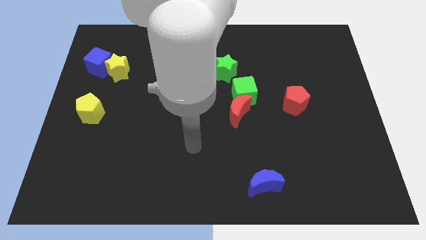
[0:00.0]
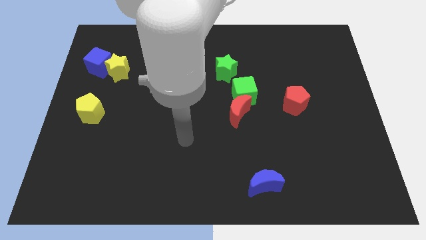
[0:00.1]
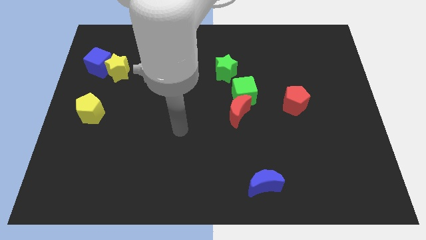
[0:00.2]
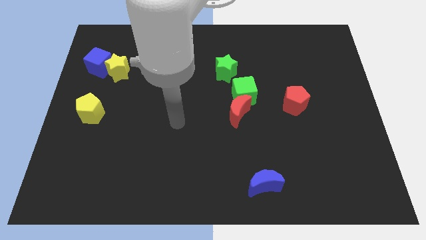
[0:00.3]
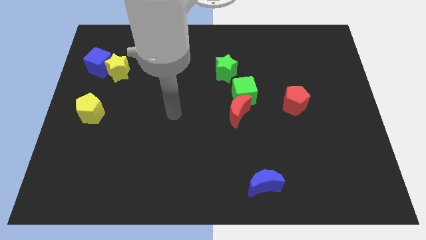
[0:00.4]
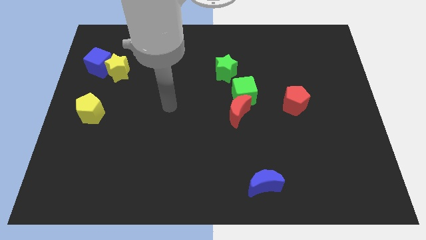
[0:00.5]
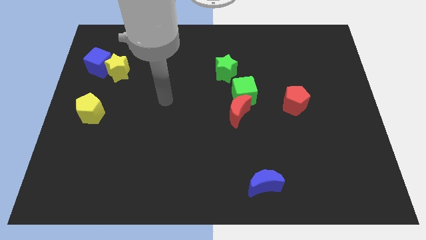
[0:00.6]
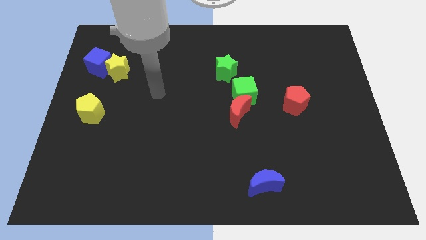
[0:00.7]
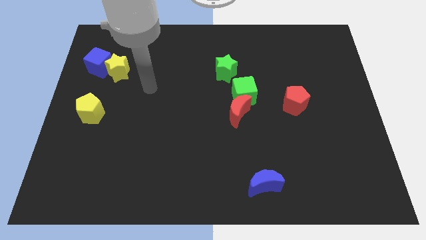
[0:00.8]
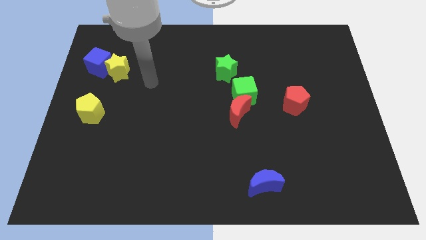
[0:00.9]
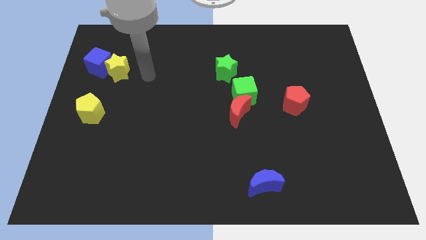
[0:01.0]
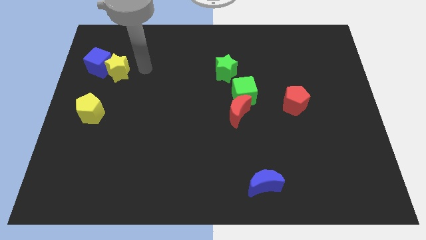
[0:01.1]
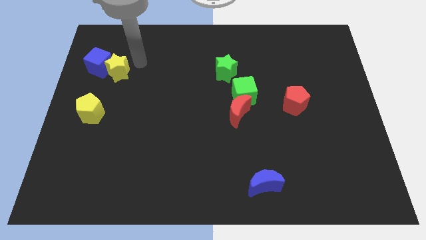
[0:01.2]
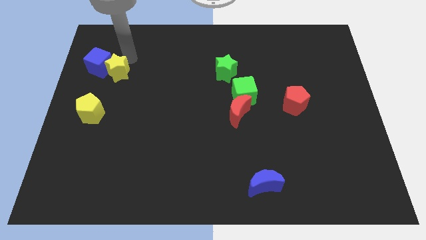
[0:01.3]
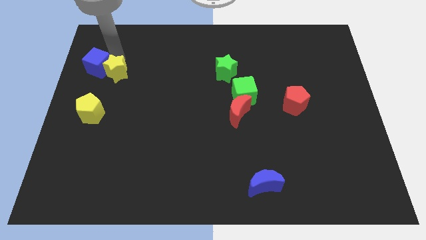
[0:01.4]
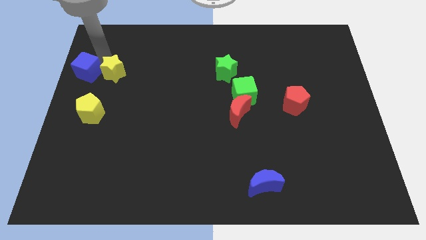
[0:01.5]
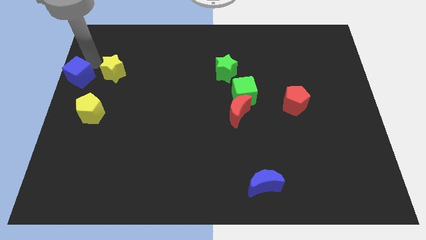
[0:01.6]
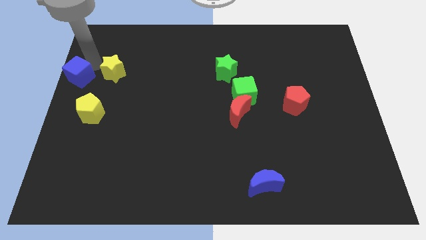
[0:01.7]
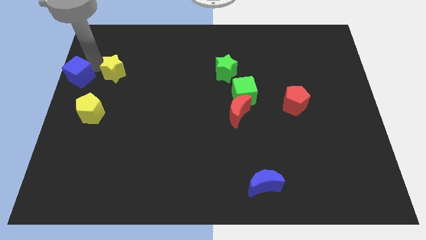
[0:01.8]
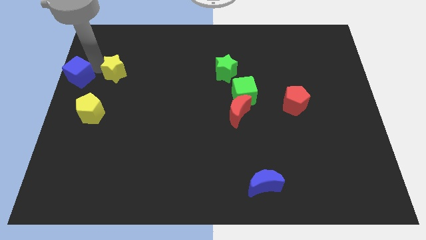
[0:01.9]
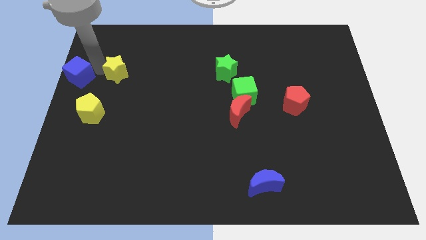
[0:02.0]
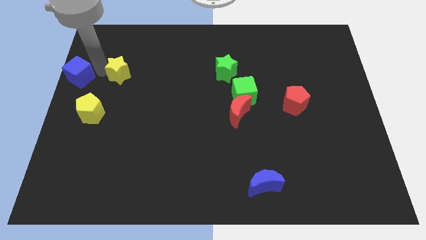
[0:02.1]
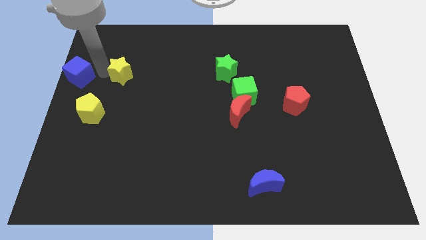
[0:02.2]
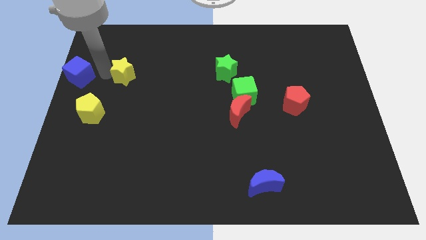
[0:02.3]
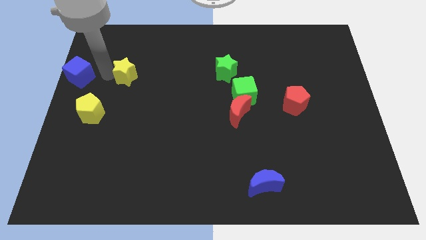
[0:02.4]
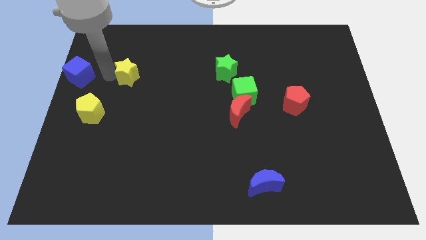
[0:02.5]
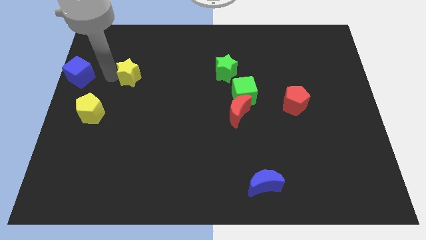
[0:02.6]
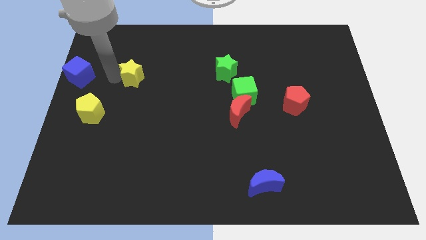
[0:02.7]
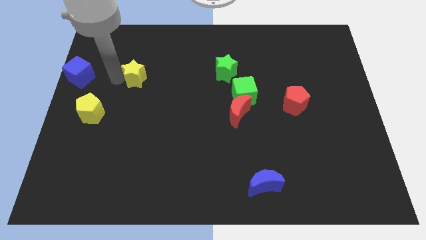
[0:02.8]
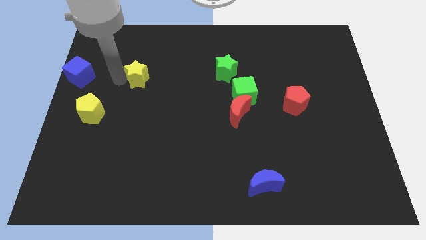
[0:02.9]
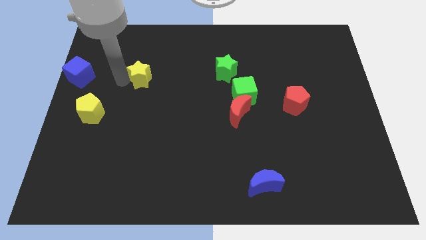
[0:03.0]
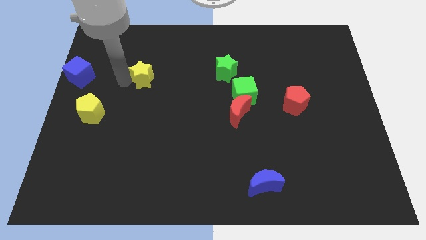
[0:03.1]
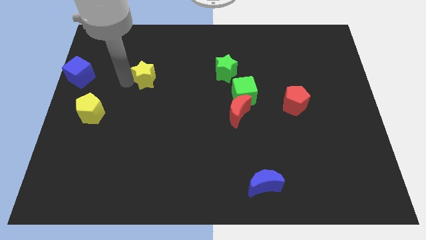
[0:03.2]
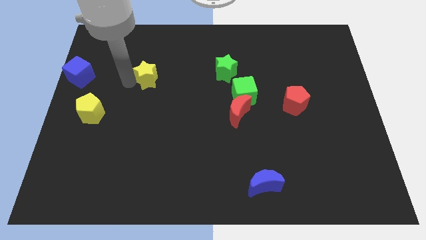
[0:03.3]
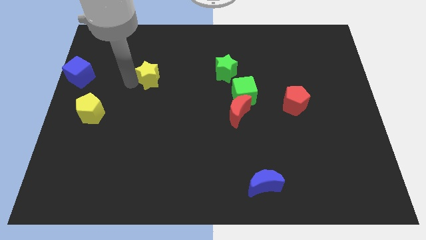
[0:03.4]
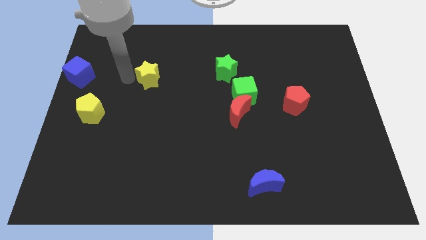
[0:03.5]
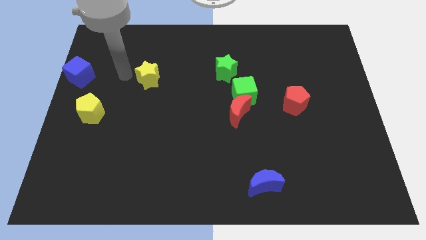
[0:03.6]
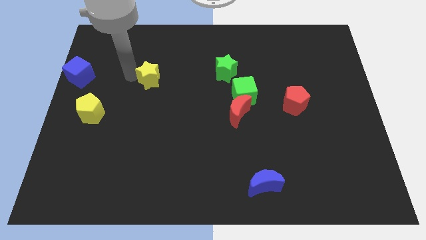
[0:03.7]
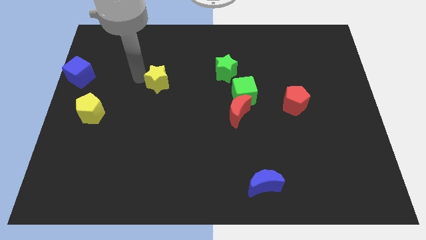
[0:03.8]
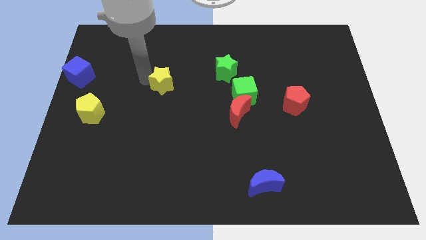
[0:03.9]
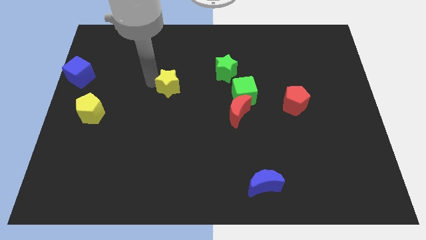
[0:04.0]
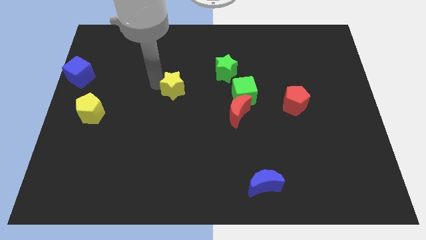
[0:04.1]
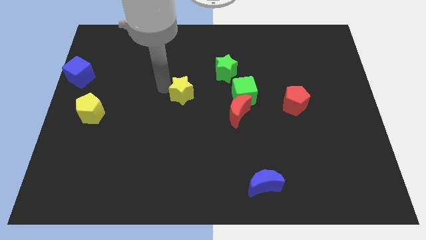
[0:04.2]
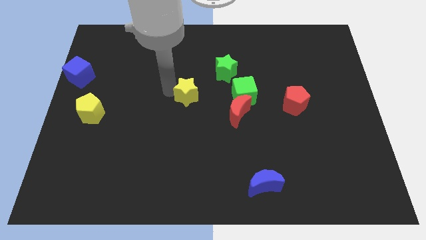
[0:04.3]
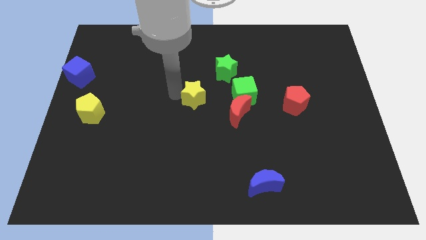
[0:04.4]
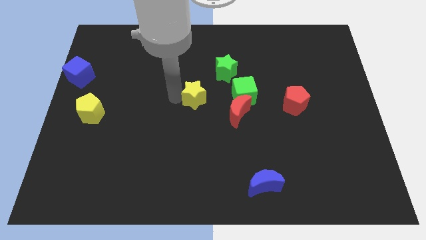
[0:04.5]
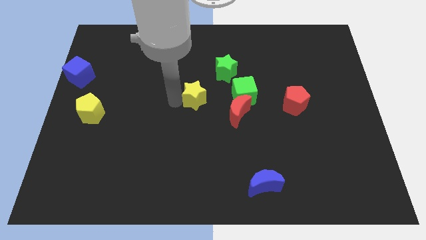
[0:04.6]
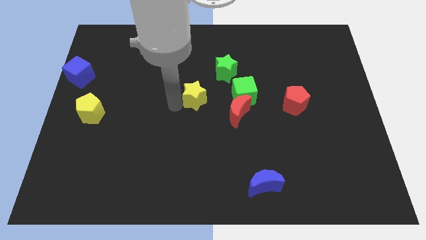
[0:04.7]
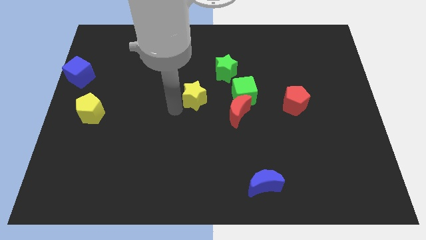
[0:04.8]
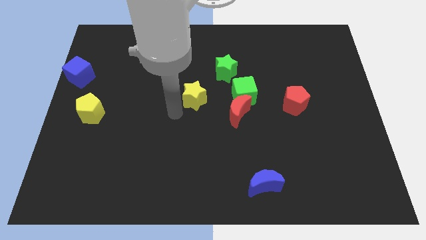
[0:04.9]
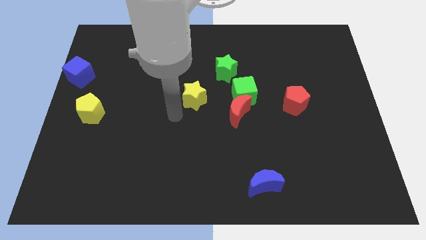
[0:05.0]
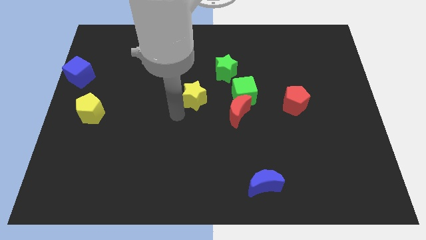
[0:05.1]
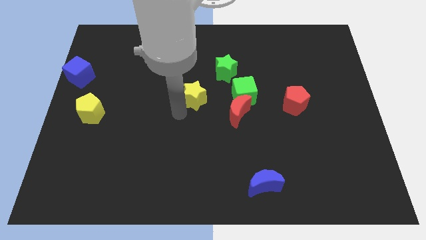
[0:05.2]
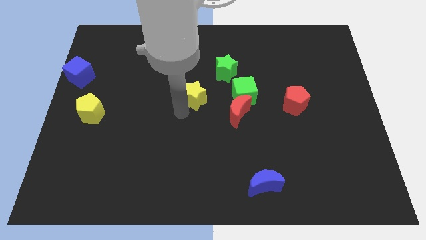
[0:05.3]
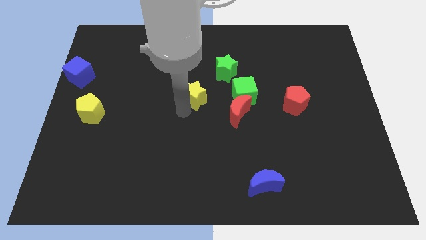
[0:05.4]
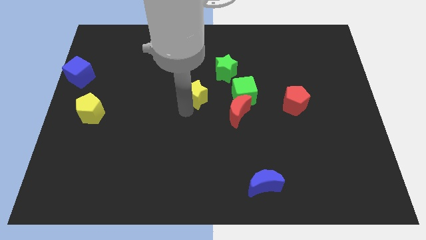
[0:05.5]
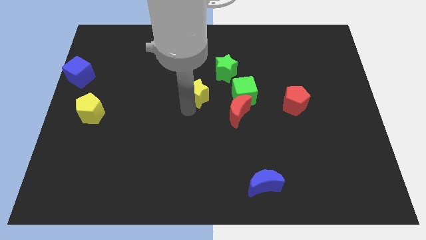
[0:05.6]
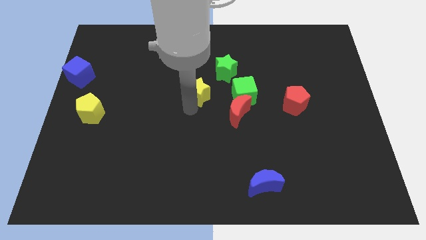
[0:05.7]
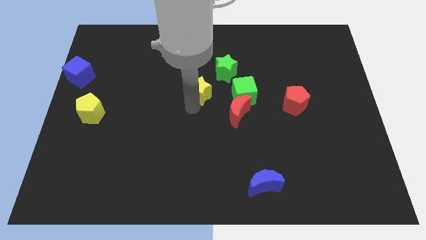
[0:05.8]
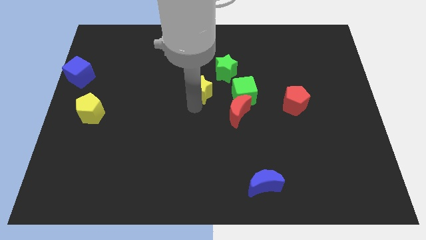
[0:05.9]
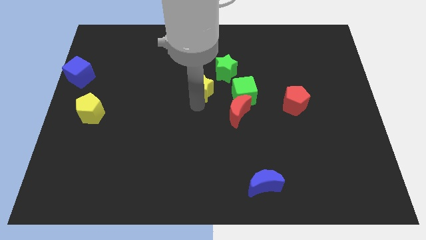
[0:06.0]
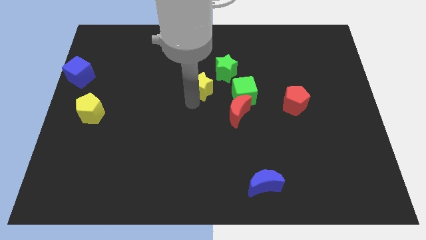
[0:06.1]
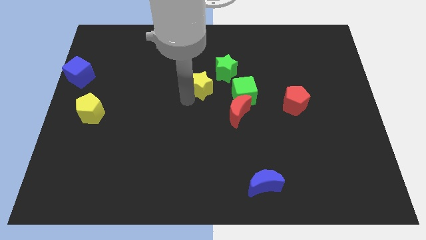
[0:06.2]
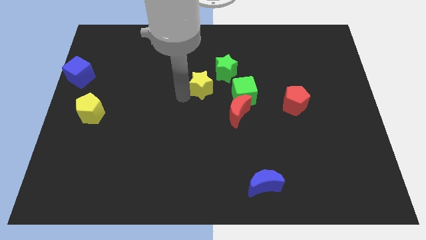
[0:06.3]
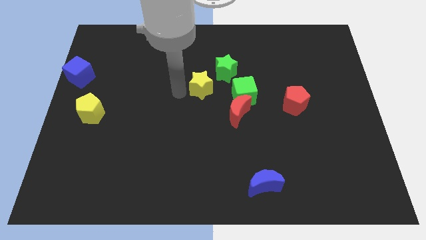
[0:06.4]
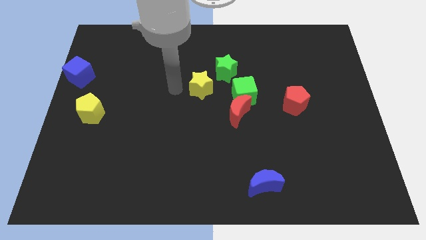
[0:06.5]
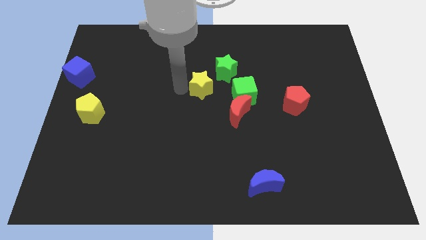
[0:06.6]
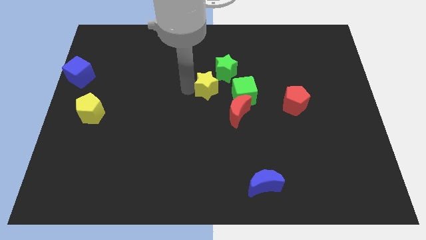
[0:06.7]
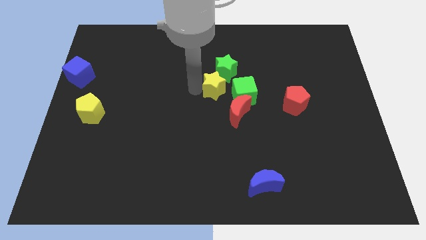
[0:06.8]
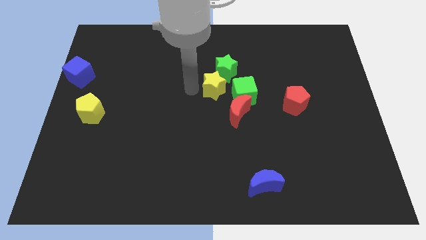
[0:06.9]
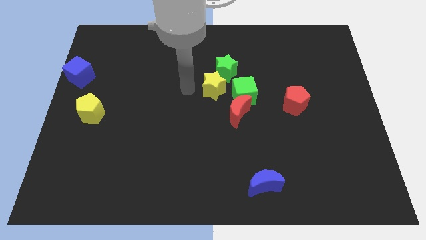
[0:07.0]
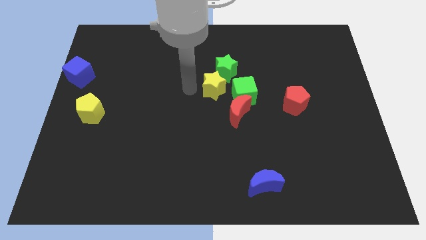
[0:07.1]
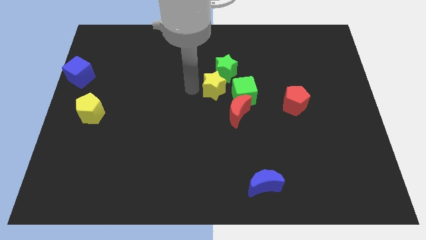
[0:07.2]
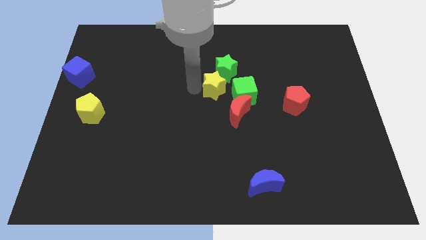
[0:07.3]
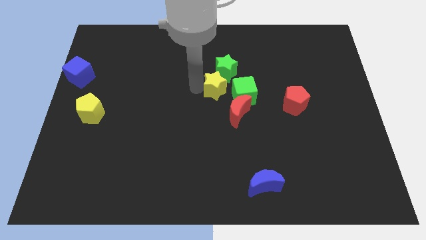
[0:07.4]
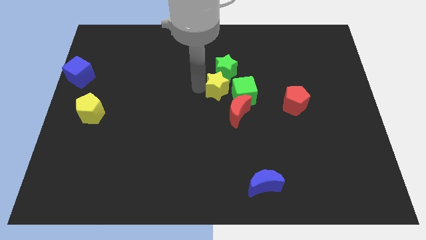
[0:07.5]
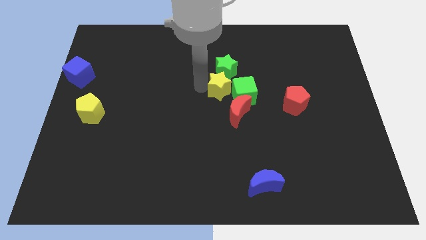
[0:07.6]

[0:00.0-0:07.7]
push the yellow star close to the green cube
